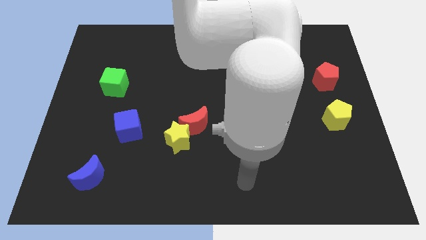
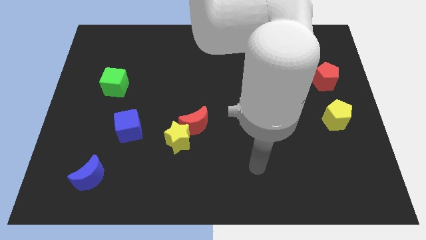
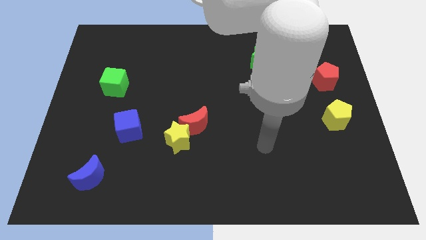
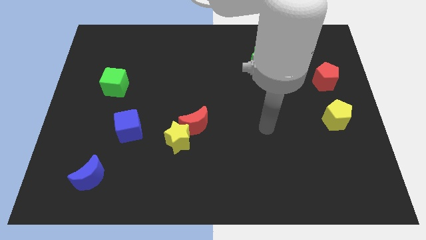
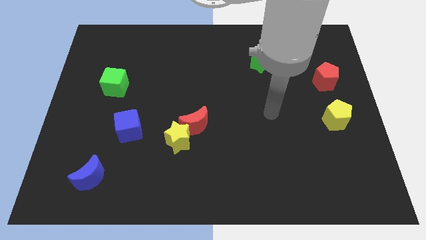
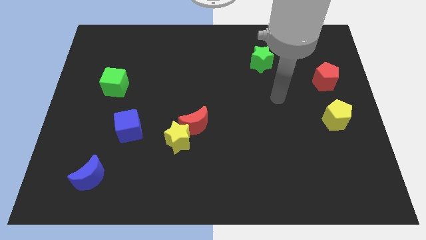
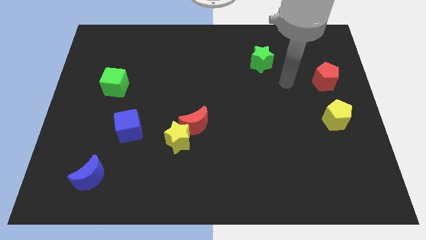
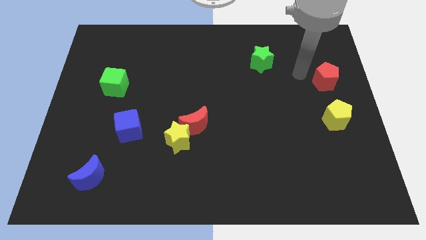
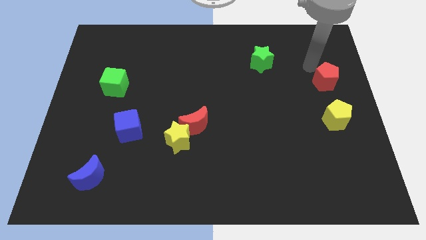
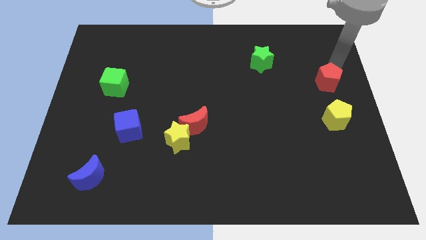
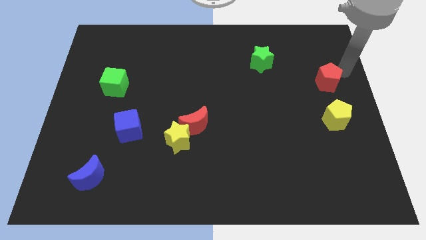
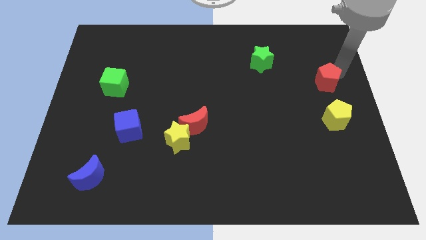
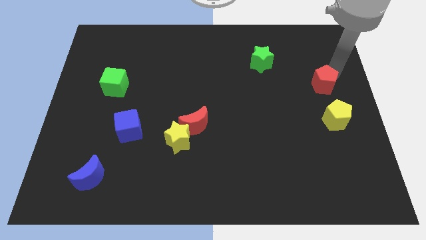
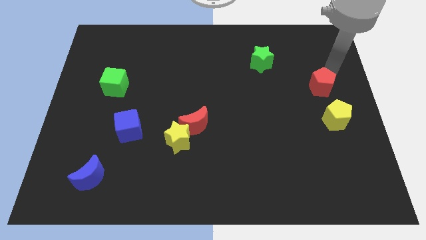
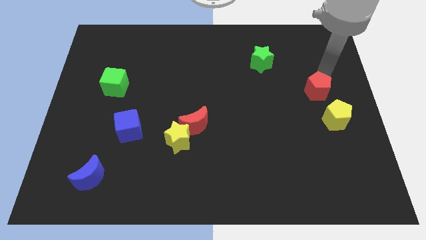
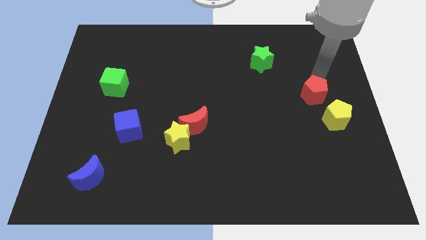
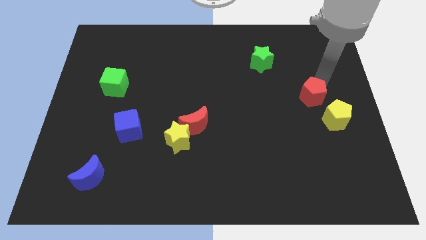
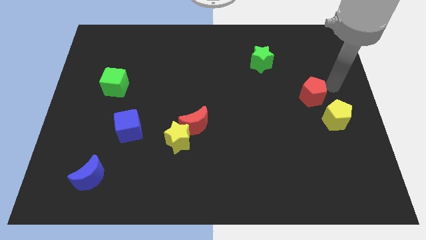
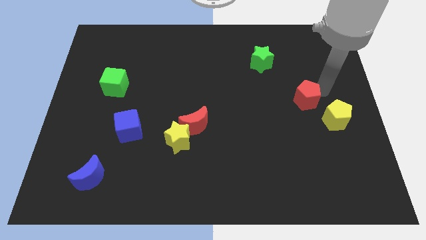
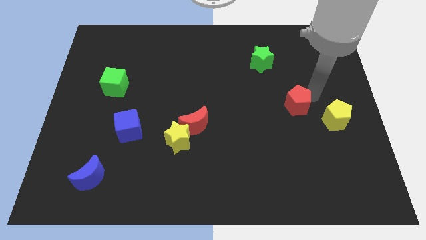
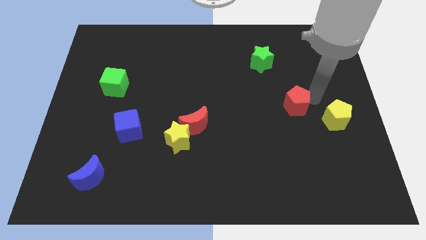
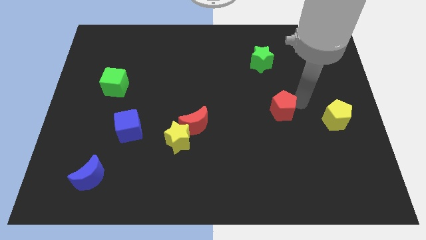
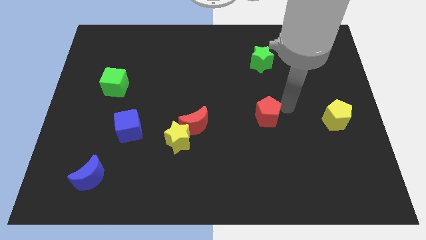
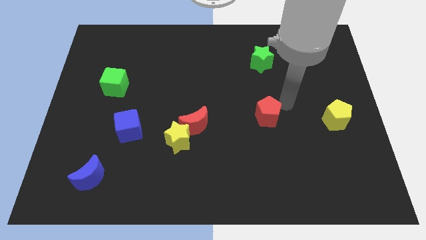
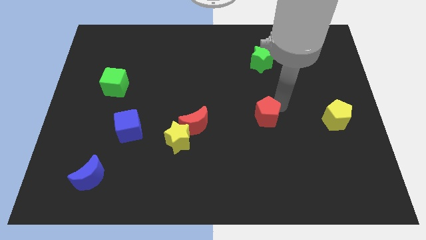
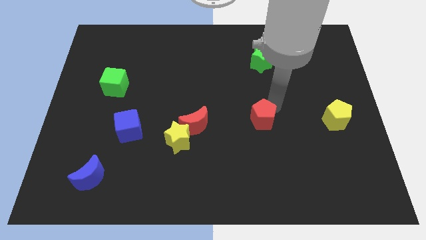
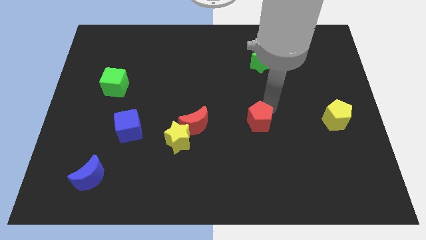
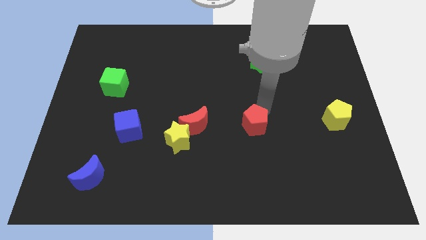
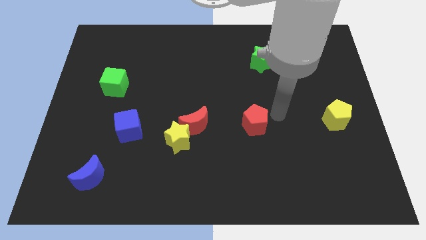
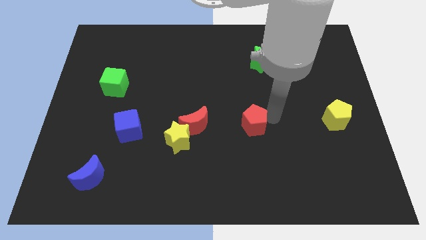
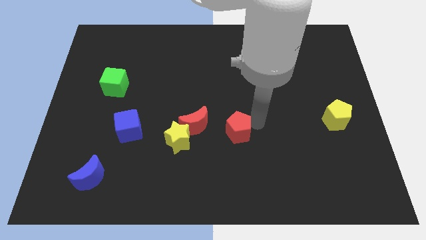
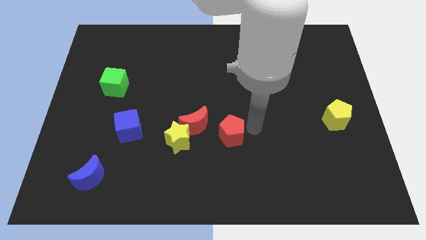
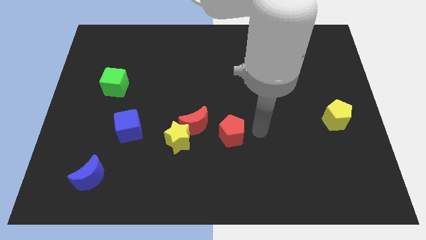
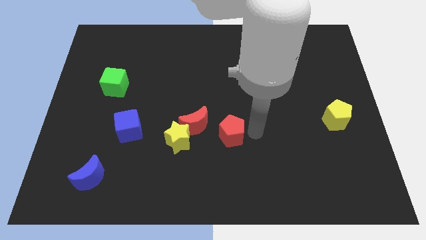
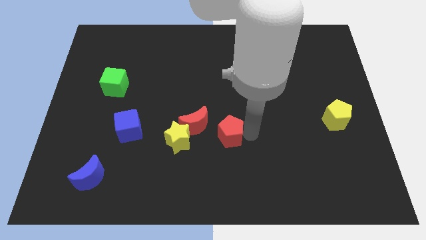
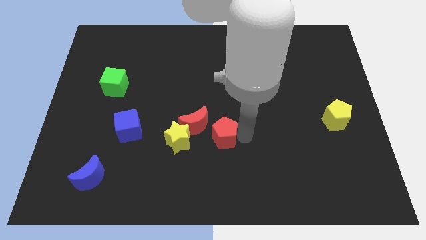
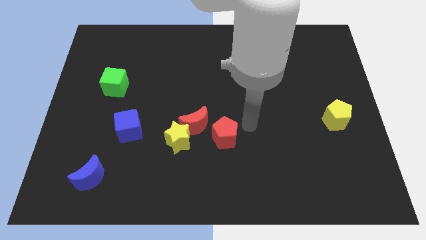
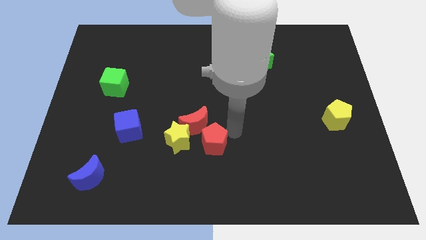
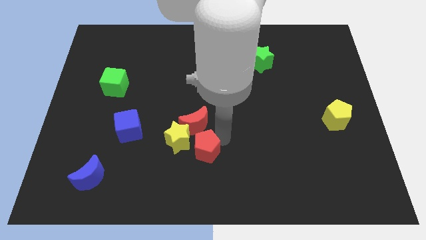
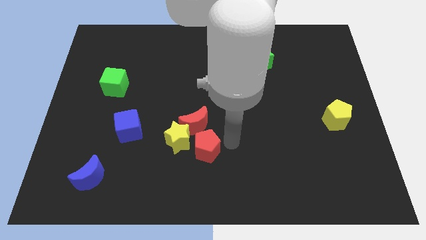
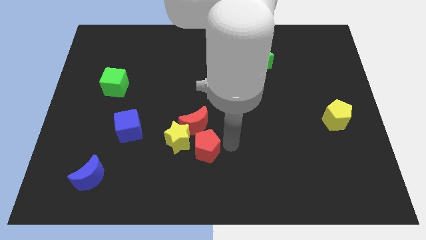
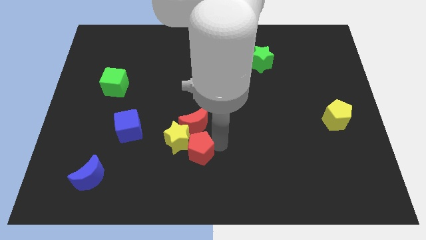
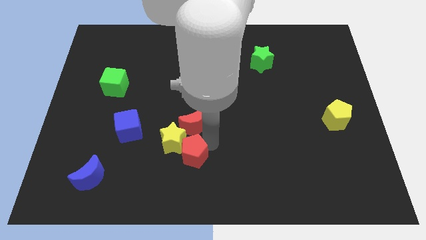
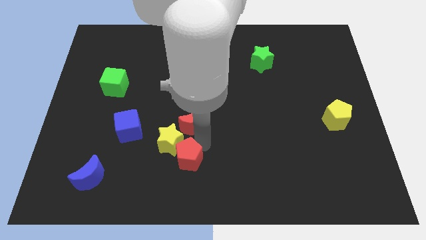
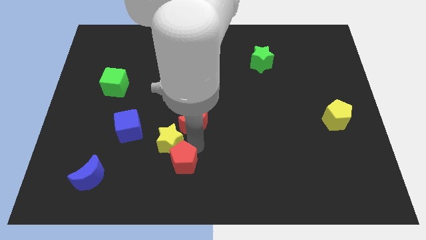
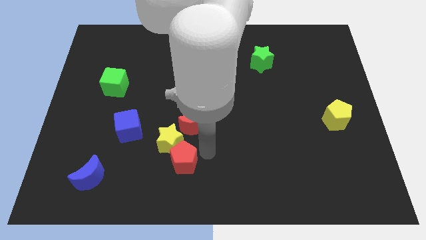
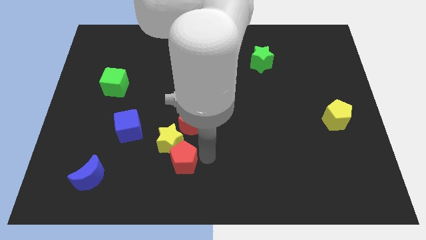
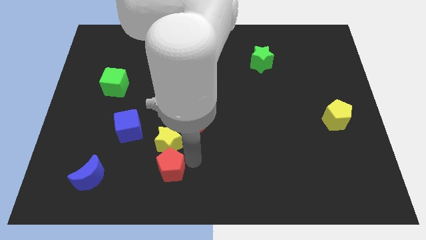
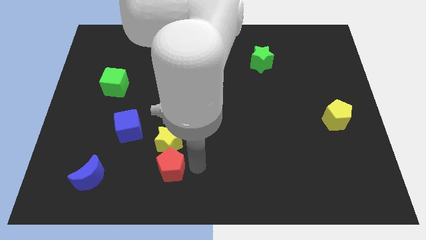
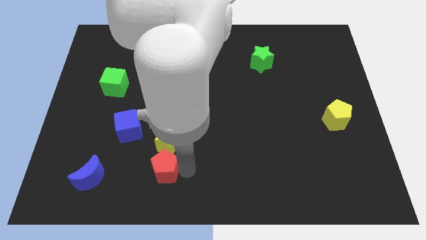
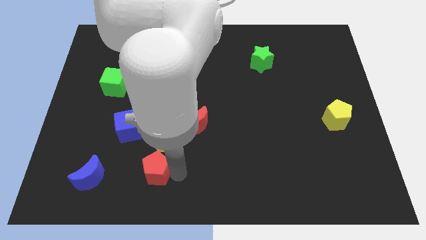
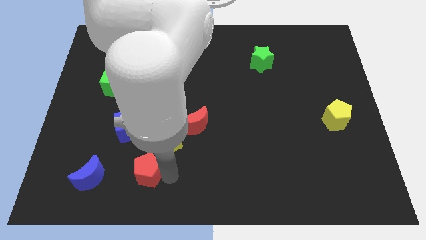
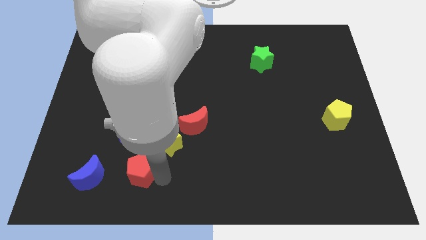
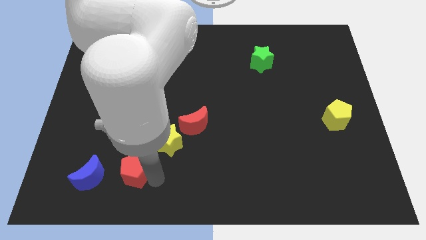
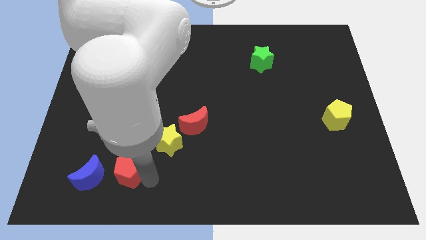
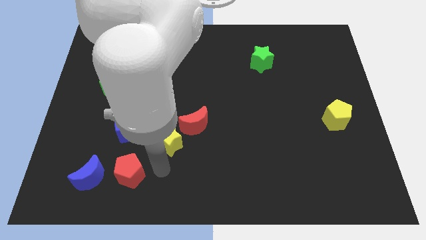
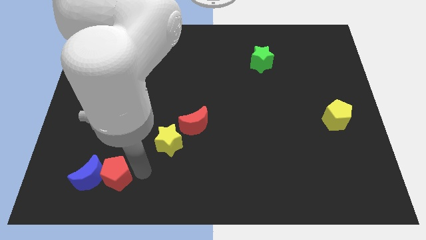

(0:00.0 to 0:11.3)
put the red pentagon towards the blue moon
